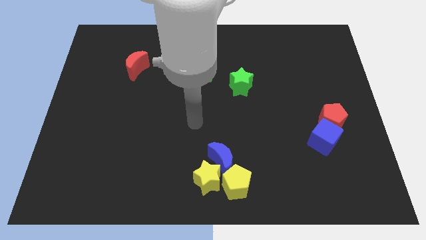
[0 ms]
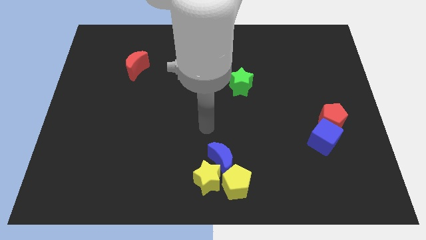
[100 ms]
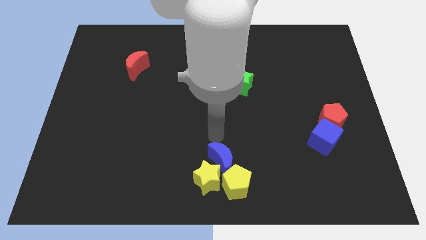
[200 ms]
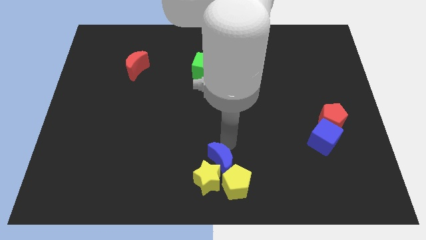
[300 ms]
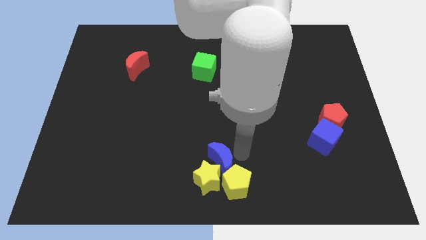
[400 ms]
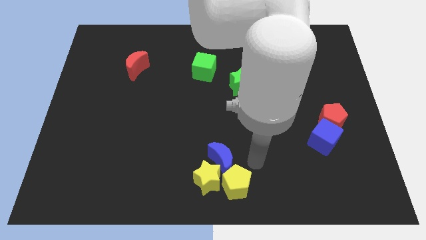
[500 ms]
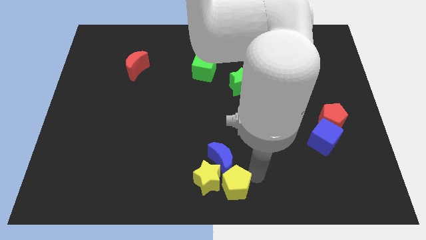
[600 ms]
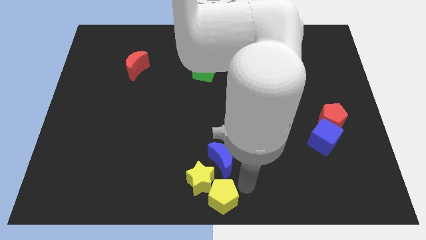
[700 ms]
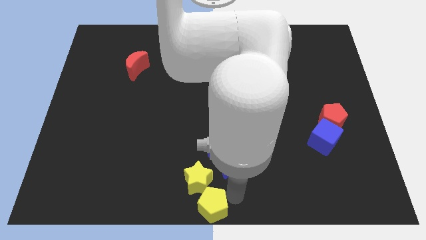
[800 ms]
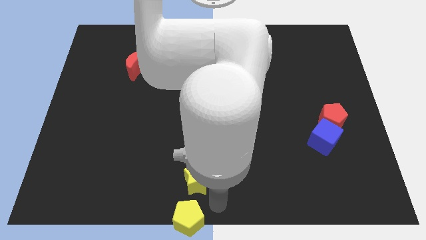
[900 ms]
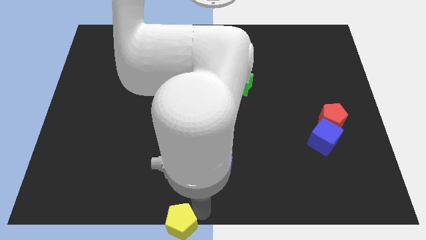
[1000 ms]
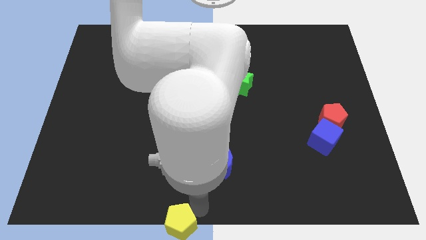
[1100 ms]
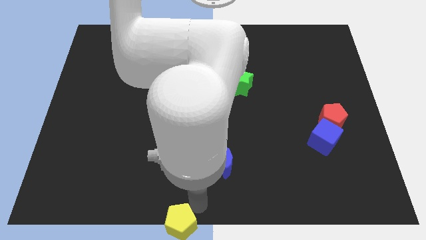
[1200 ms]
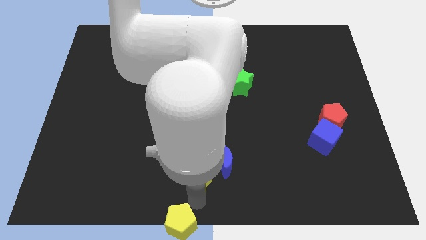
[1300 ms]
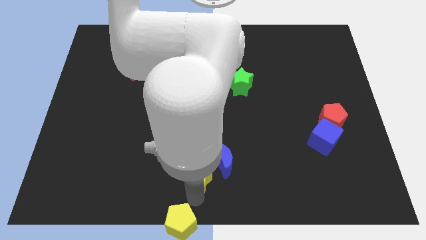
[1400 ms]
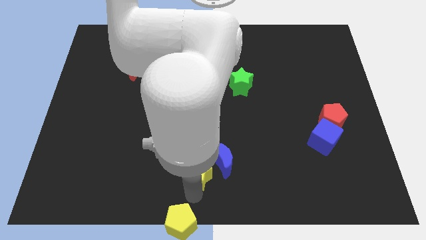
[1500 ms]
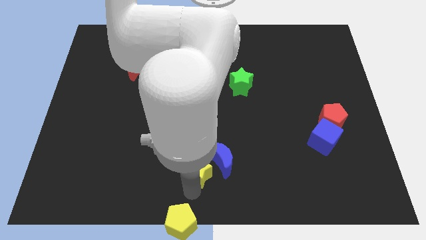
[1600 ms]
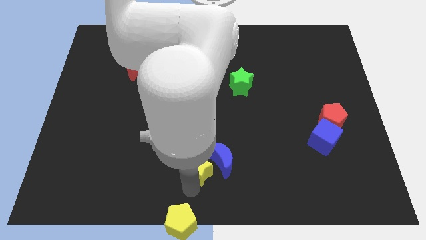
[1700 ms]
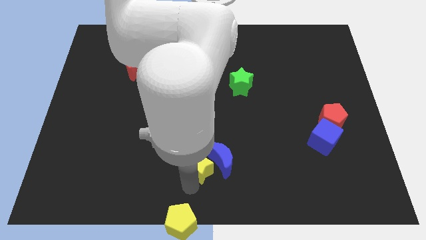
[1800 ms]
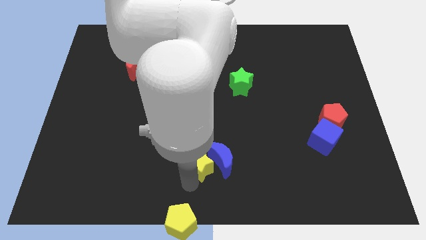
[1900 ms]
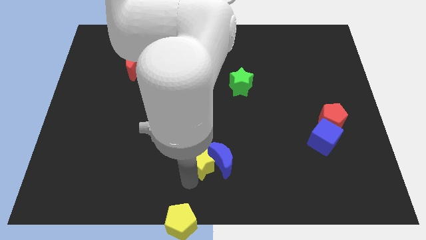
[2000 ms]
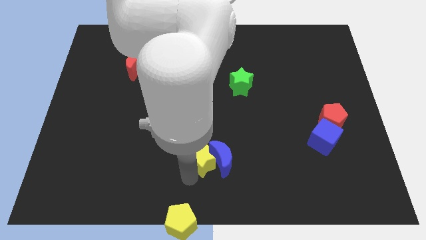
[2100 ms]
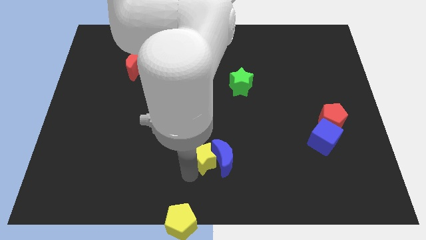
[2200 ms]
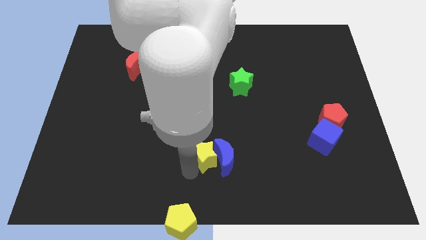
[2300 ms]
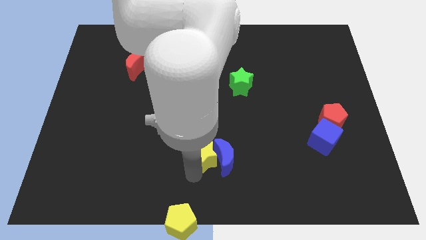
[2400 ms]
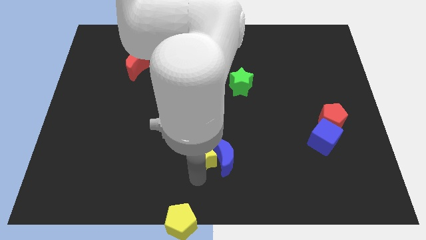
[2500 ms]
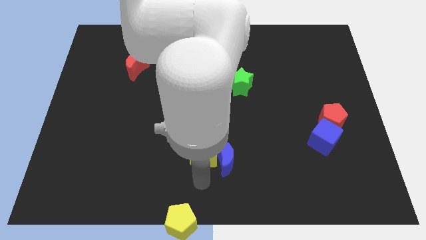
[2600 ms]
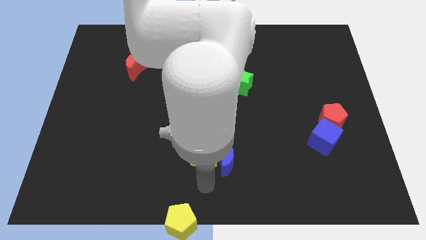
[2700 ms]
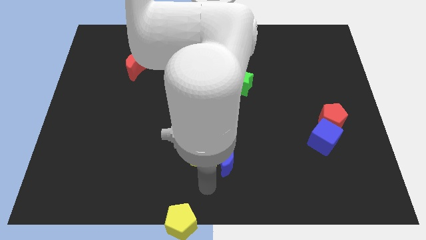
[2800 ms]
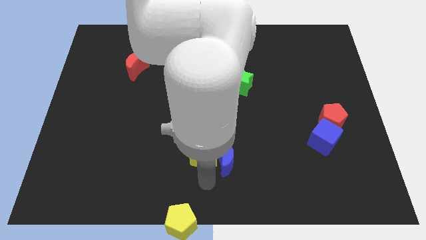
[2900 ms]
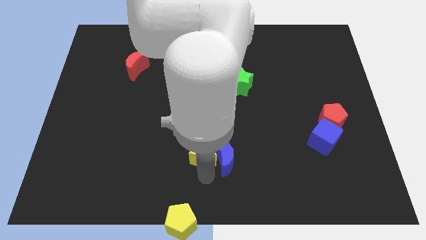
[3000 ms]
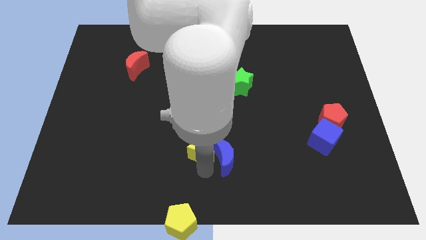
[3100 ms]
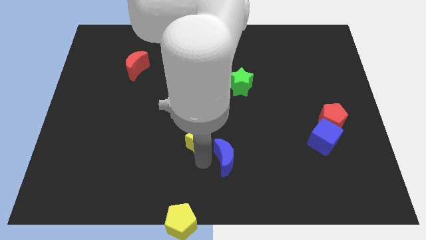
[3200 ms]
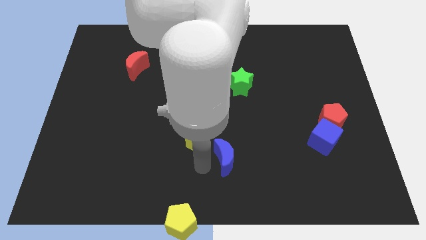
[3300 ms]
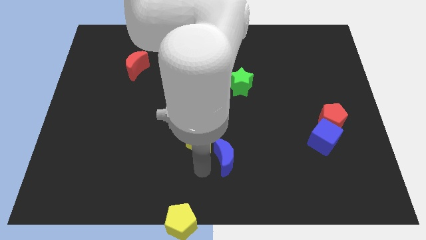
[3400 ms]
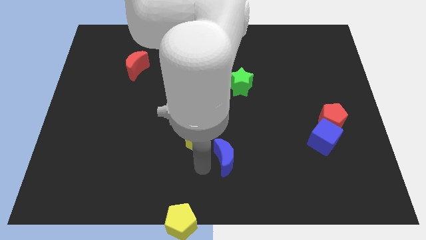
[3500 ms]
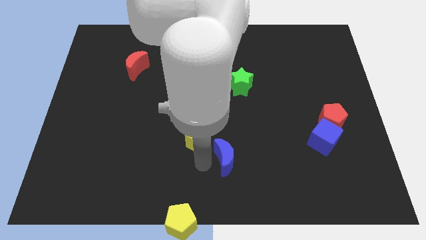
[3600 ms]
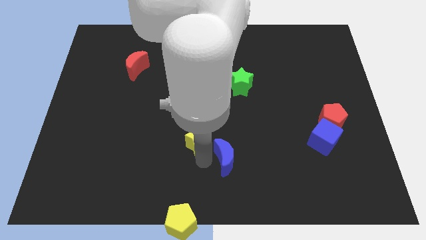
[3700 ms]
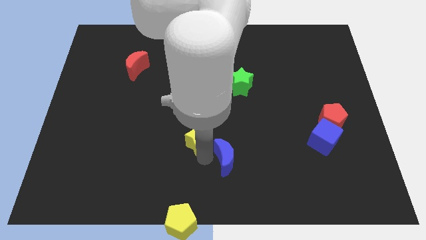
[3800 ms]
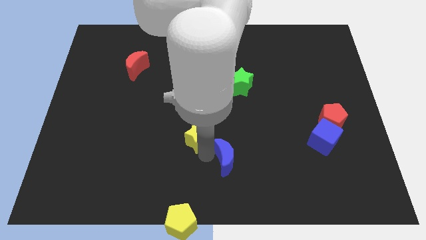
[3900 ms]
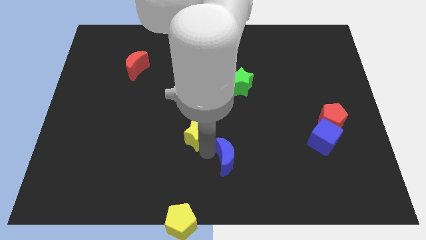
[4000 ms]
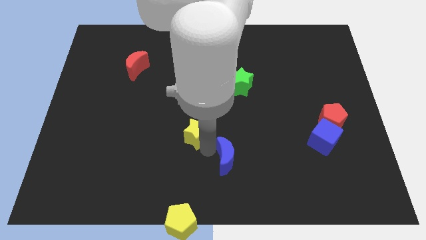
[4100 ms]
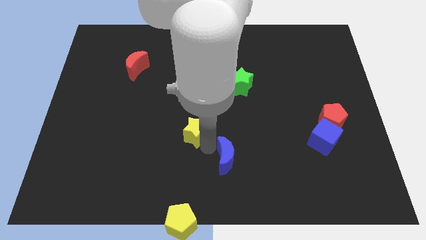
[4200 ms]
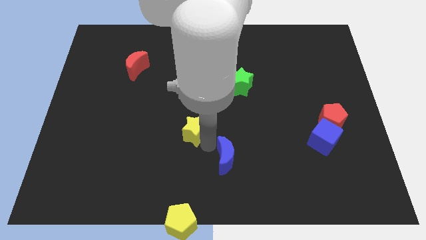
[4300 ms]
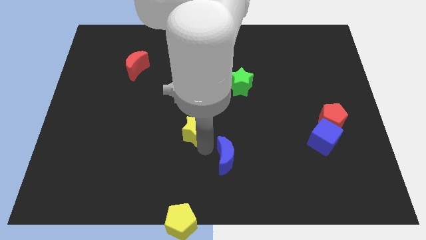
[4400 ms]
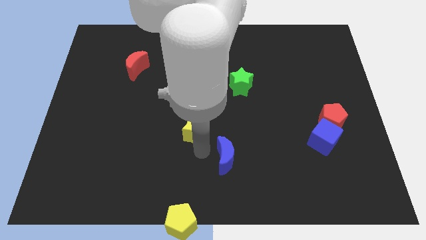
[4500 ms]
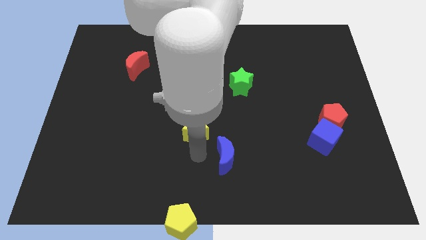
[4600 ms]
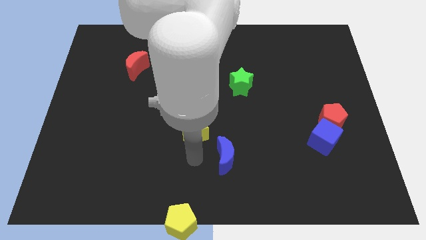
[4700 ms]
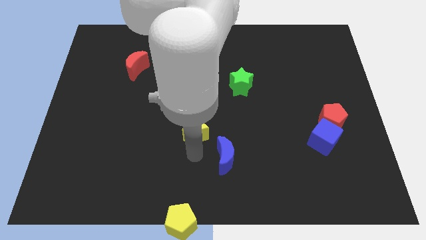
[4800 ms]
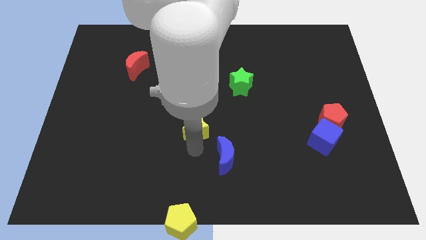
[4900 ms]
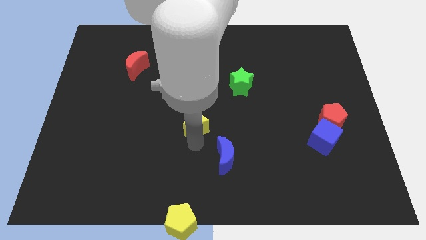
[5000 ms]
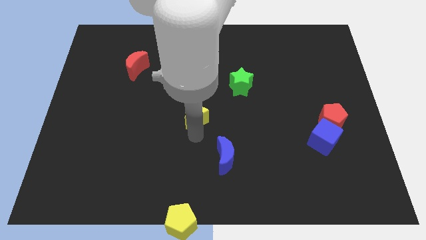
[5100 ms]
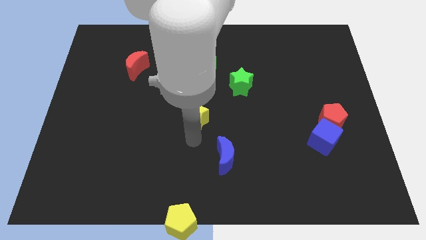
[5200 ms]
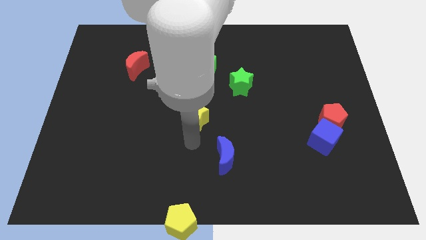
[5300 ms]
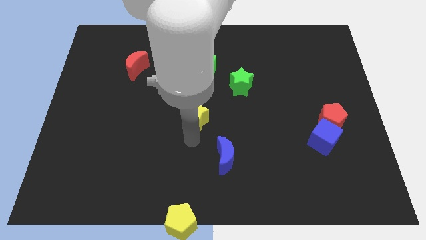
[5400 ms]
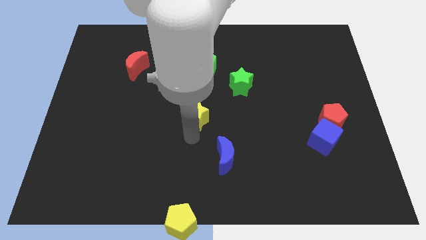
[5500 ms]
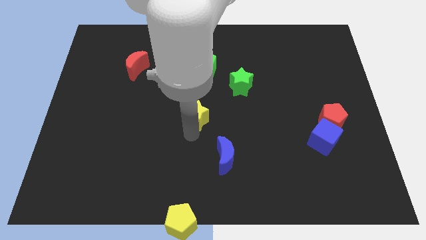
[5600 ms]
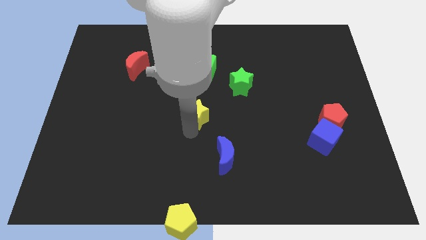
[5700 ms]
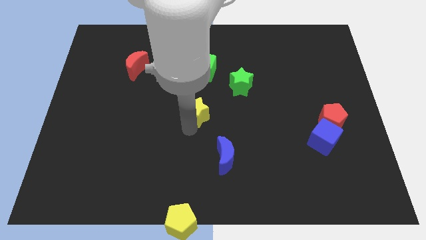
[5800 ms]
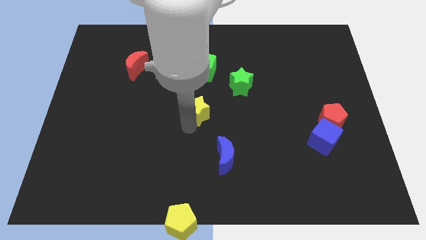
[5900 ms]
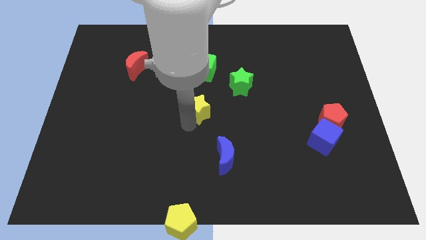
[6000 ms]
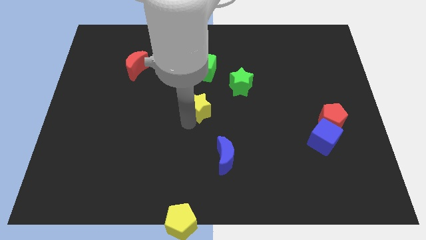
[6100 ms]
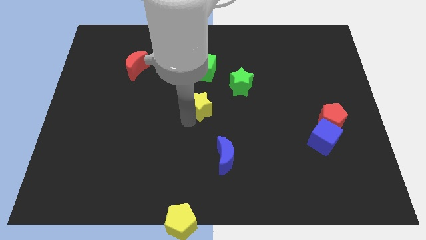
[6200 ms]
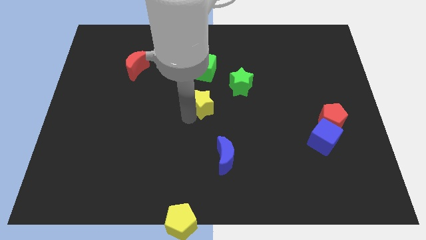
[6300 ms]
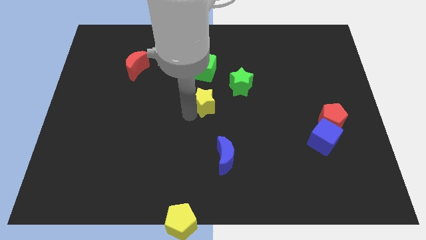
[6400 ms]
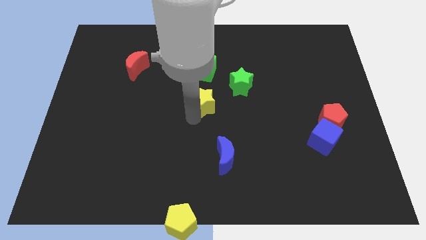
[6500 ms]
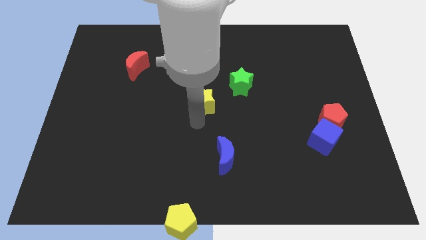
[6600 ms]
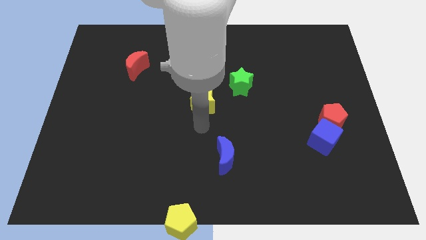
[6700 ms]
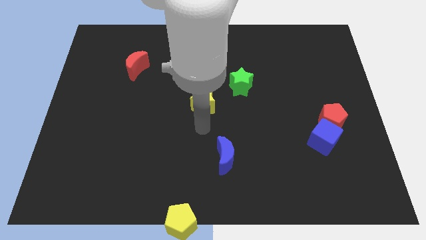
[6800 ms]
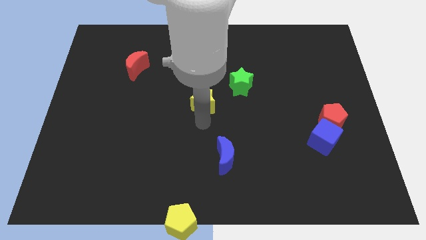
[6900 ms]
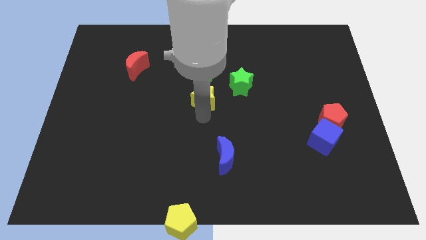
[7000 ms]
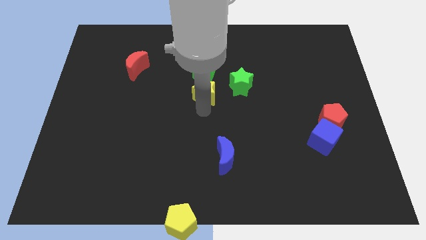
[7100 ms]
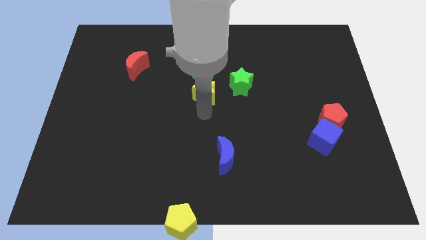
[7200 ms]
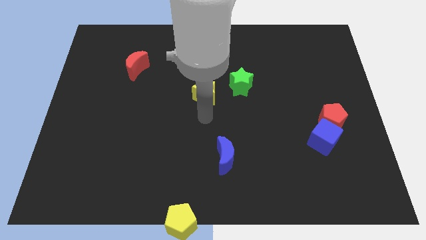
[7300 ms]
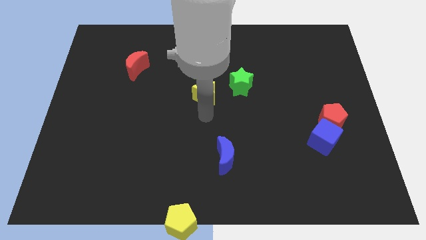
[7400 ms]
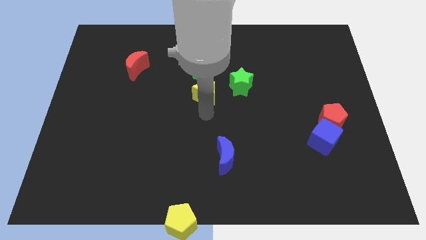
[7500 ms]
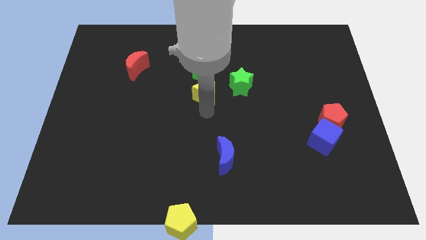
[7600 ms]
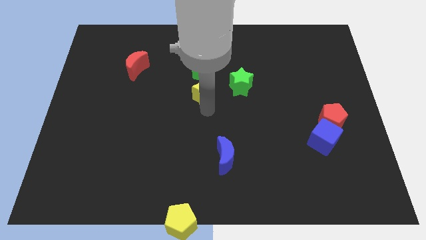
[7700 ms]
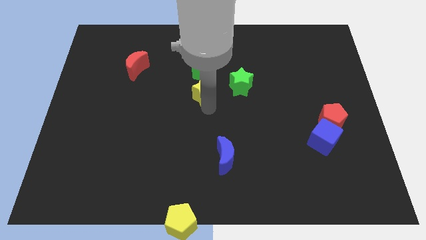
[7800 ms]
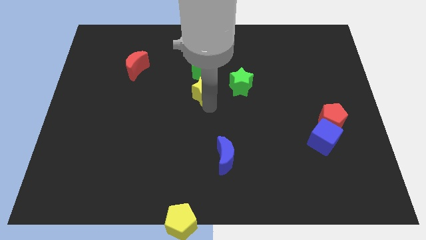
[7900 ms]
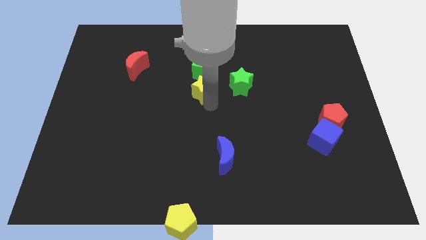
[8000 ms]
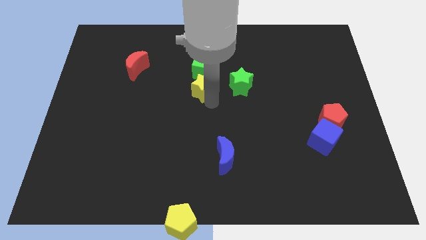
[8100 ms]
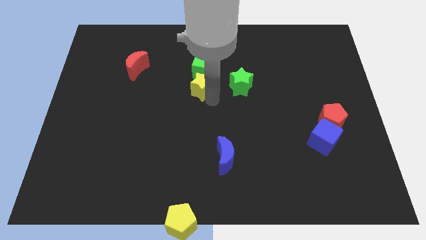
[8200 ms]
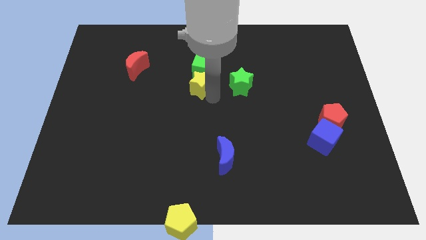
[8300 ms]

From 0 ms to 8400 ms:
move the yellow star close to the green cube
